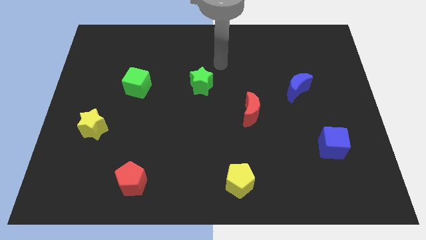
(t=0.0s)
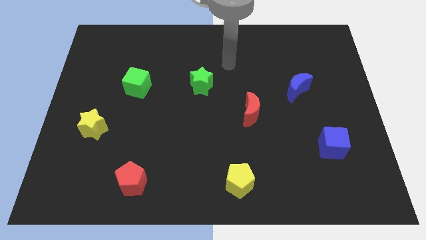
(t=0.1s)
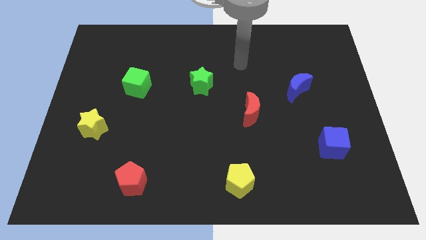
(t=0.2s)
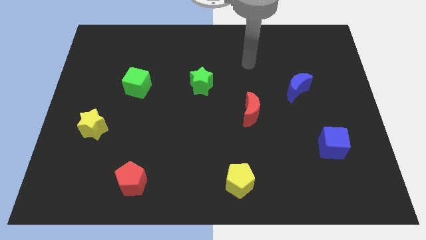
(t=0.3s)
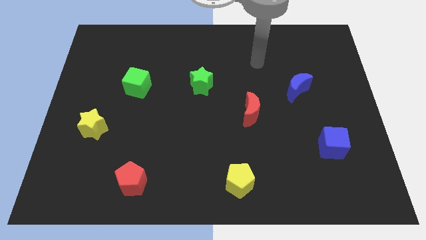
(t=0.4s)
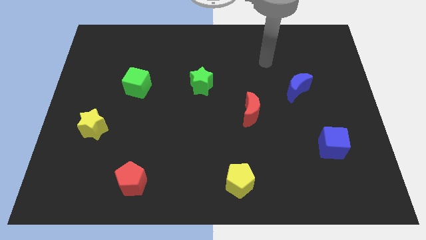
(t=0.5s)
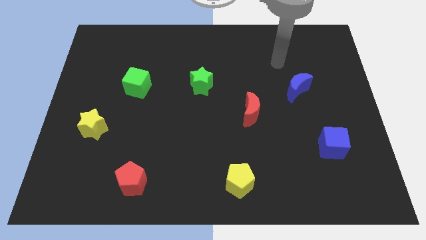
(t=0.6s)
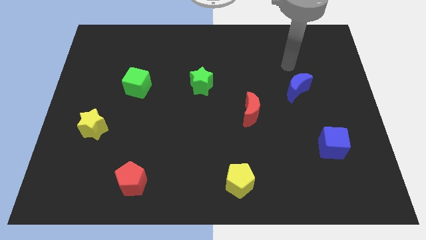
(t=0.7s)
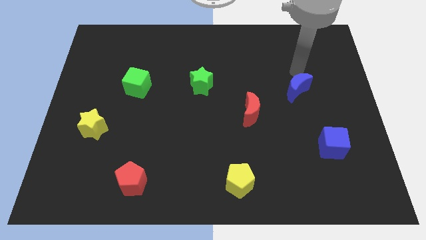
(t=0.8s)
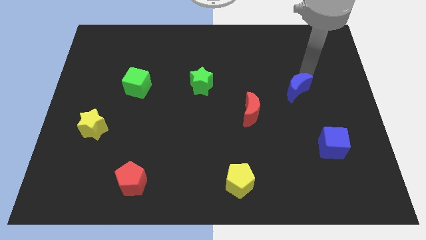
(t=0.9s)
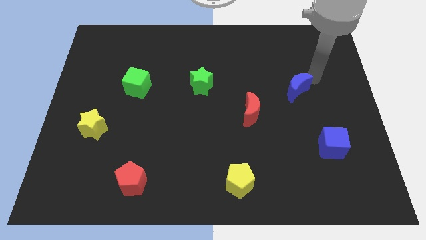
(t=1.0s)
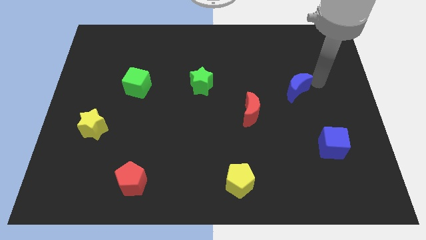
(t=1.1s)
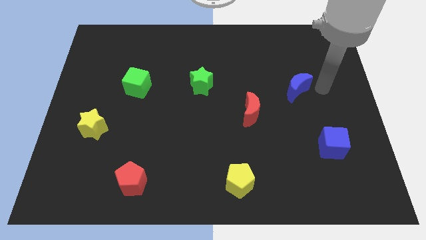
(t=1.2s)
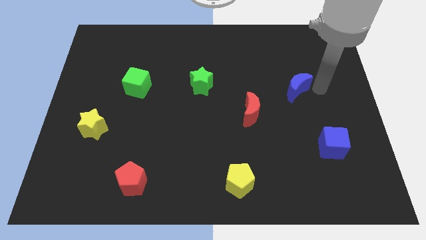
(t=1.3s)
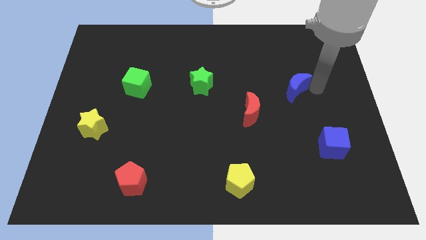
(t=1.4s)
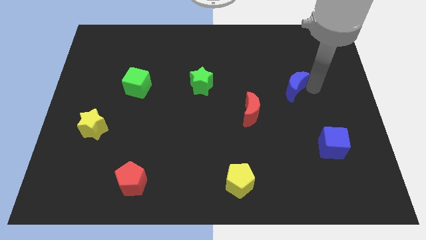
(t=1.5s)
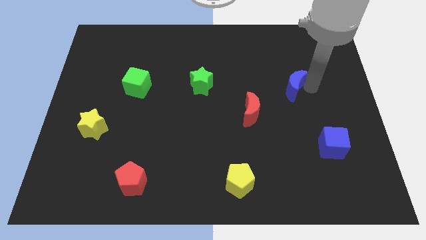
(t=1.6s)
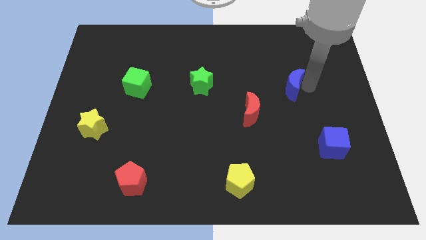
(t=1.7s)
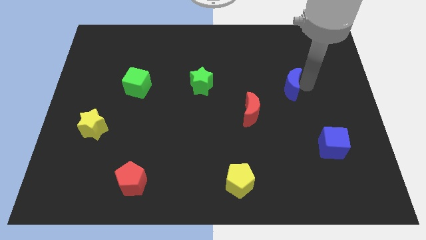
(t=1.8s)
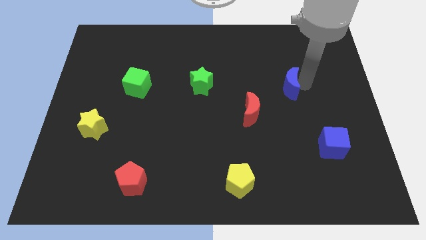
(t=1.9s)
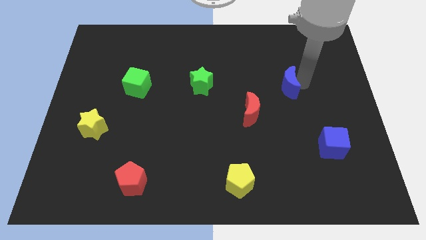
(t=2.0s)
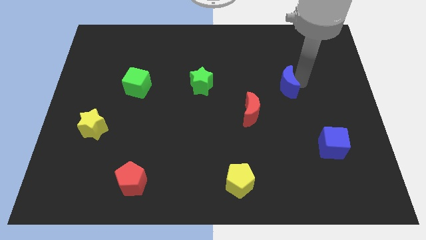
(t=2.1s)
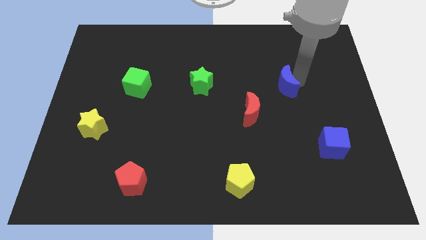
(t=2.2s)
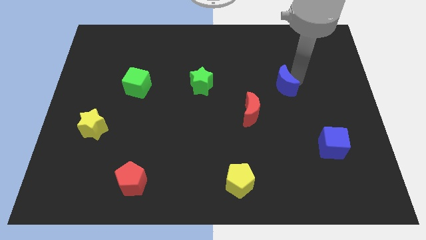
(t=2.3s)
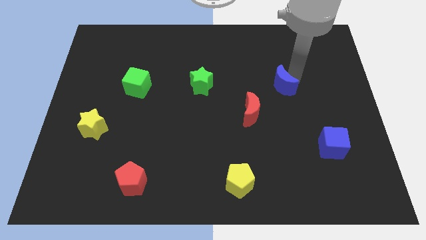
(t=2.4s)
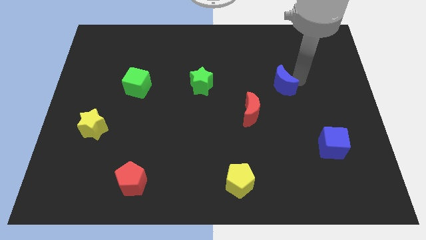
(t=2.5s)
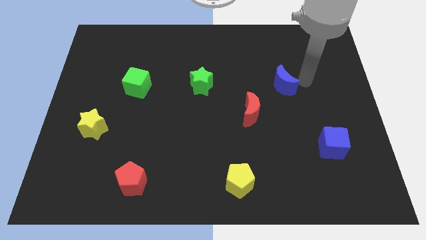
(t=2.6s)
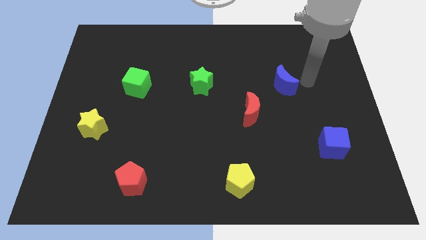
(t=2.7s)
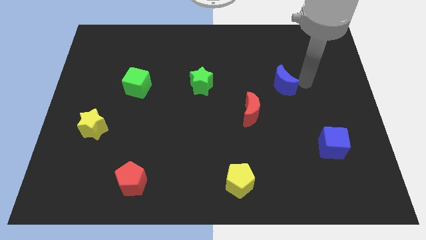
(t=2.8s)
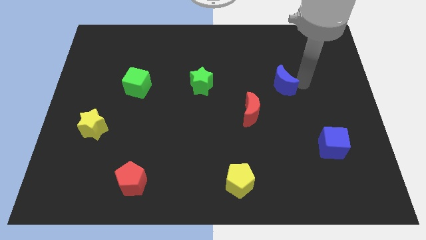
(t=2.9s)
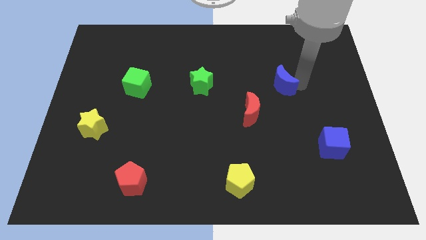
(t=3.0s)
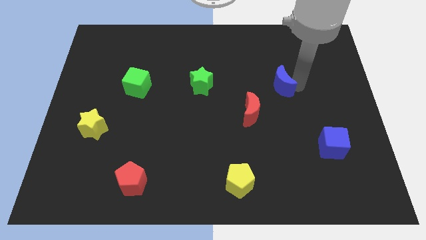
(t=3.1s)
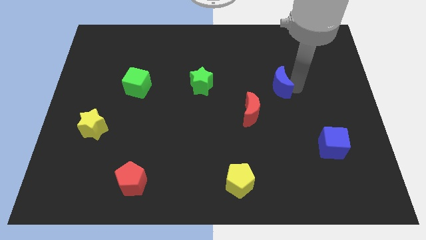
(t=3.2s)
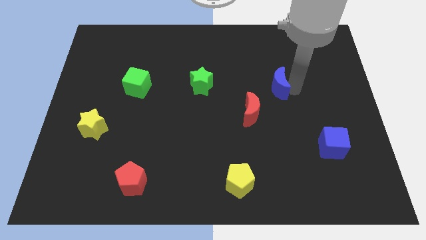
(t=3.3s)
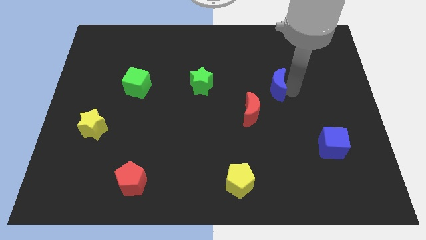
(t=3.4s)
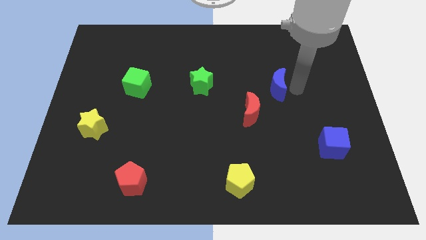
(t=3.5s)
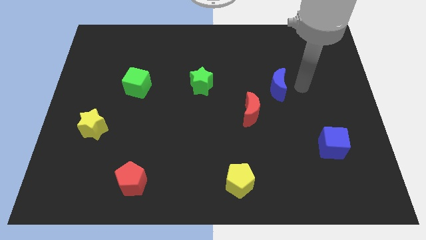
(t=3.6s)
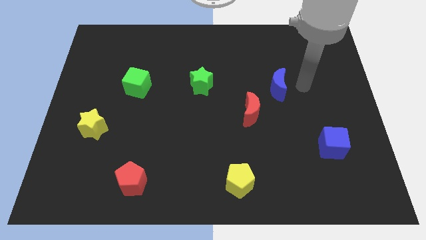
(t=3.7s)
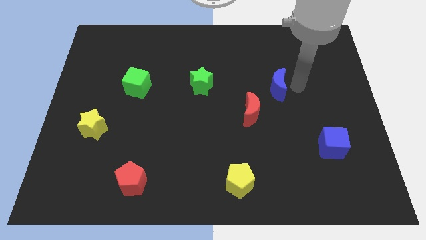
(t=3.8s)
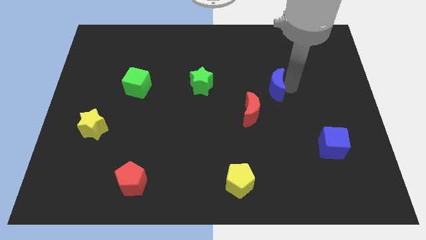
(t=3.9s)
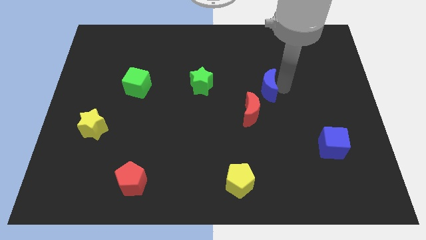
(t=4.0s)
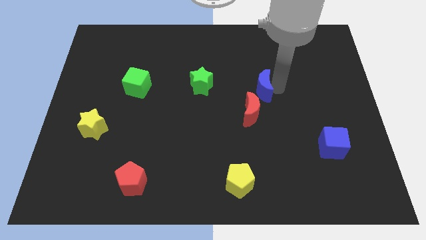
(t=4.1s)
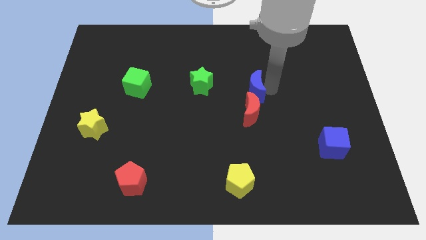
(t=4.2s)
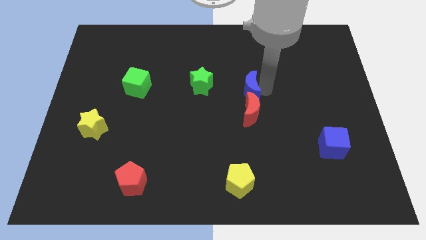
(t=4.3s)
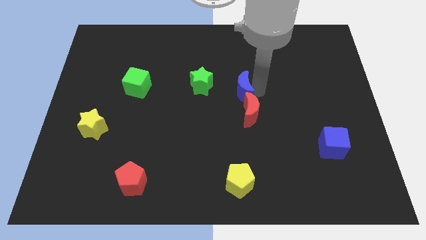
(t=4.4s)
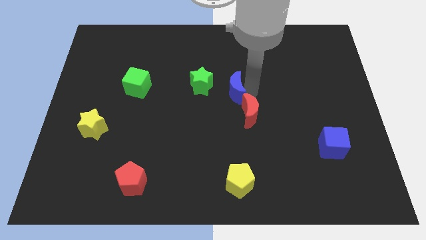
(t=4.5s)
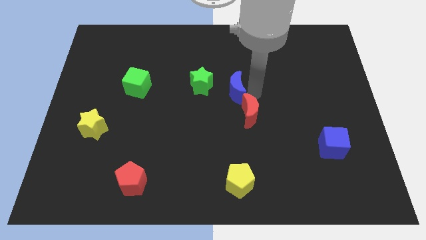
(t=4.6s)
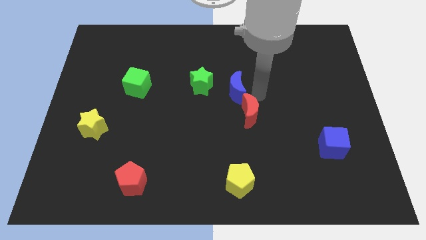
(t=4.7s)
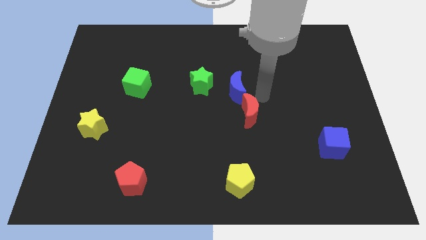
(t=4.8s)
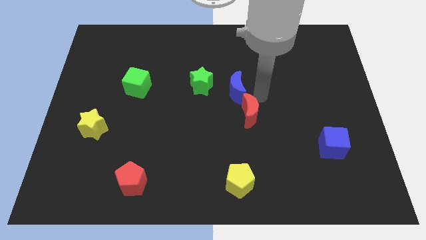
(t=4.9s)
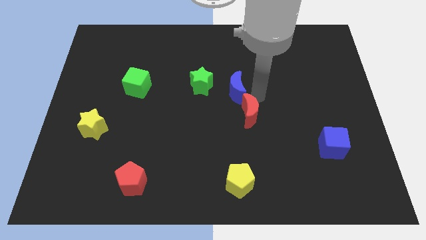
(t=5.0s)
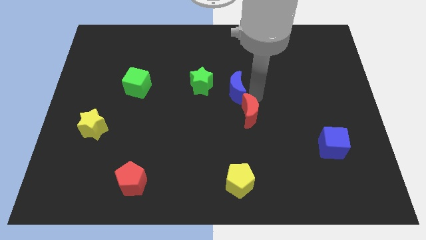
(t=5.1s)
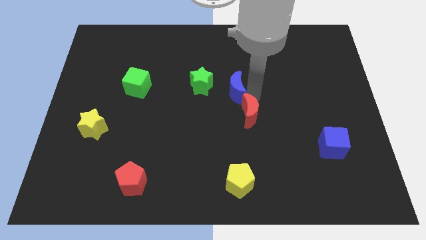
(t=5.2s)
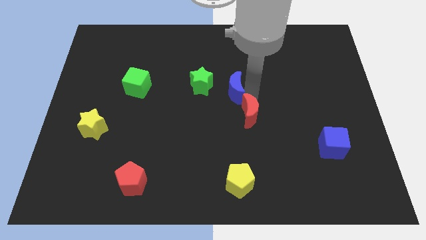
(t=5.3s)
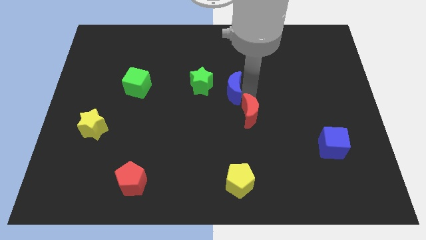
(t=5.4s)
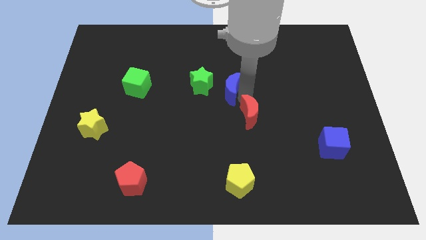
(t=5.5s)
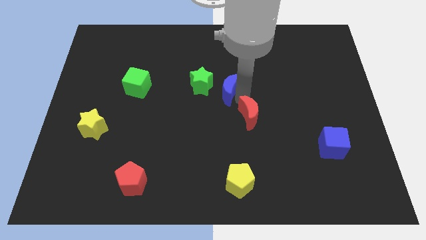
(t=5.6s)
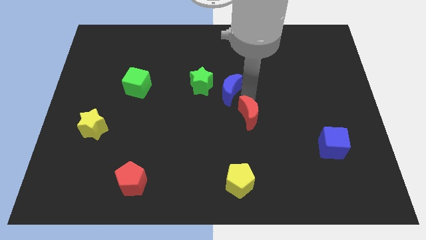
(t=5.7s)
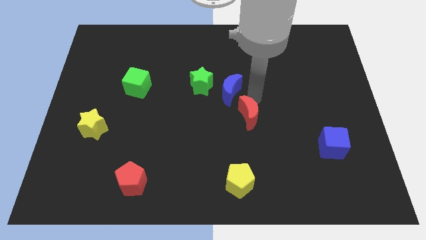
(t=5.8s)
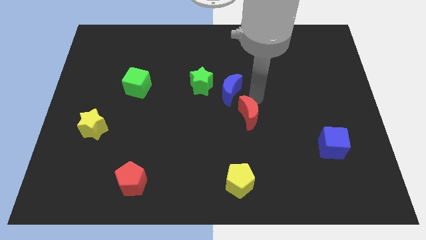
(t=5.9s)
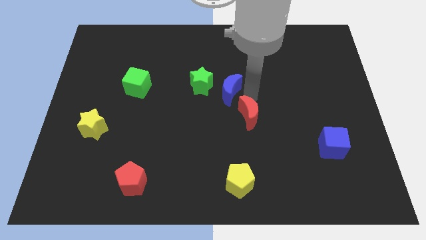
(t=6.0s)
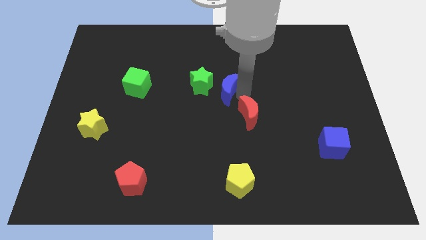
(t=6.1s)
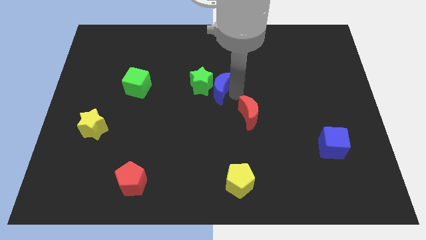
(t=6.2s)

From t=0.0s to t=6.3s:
slide the blue moon towards the green star

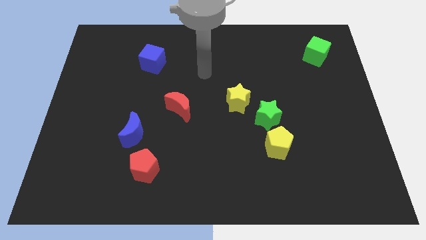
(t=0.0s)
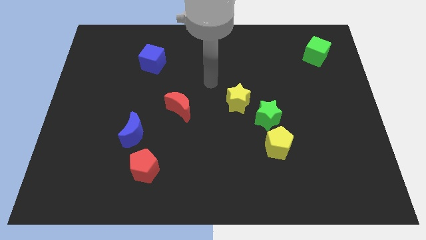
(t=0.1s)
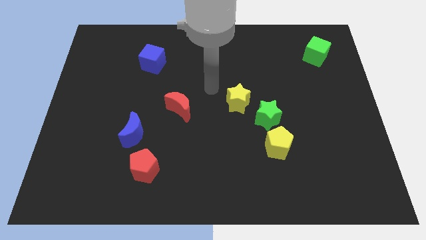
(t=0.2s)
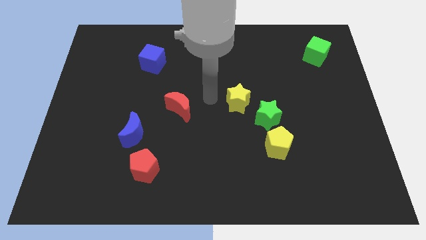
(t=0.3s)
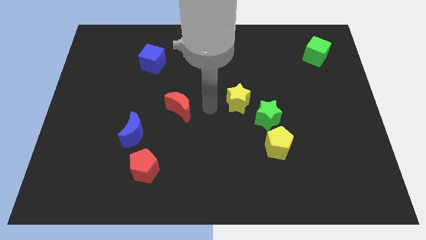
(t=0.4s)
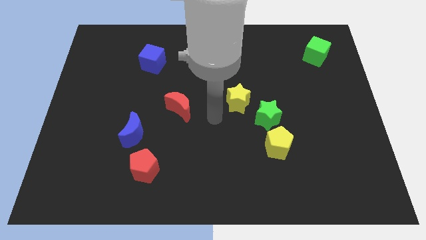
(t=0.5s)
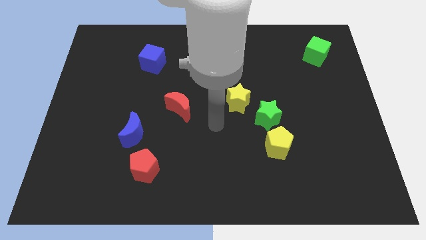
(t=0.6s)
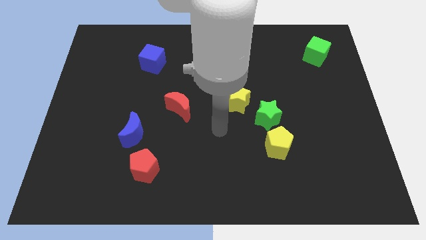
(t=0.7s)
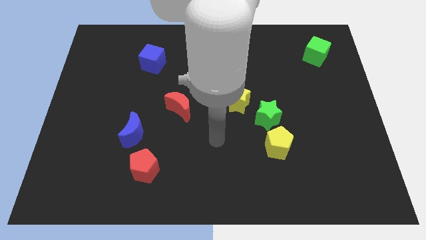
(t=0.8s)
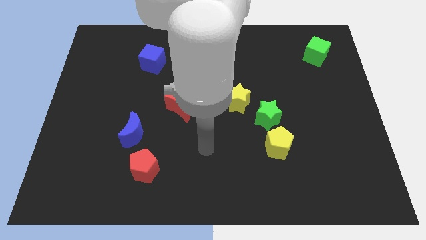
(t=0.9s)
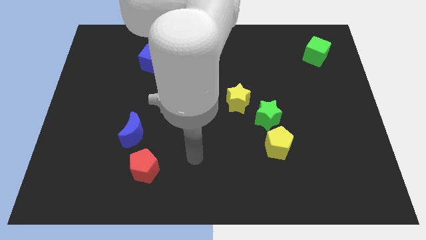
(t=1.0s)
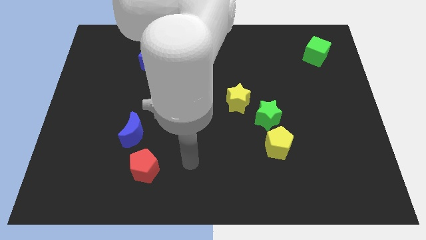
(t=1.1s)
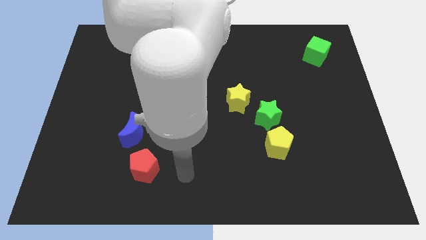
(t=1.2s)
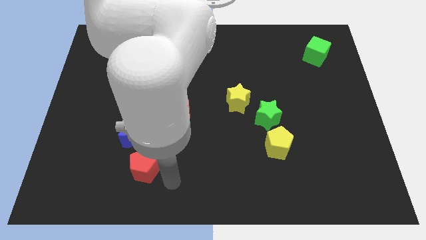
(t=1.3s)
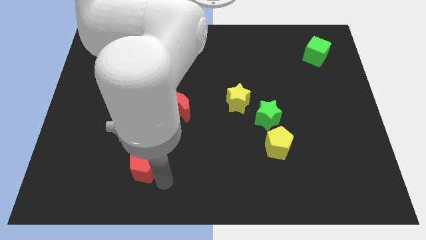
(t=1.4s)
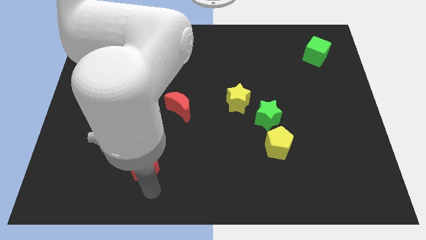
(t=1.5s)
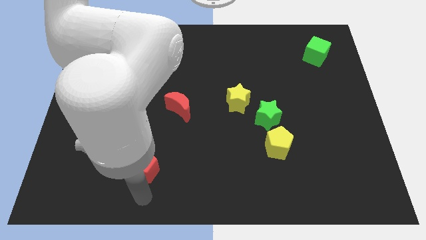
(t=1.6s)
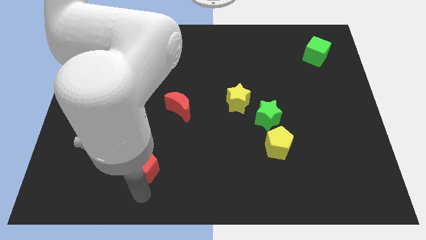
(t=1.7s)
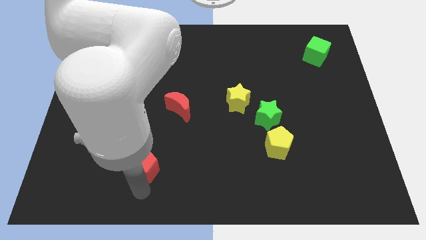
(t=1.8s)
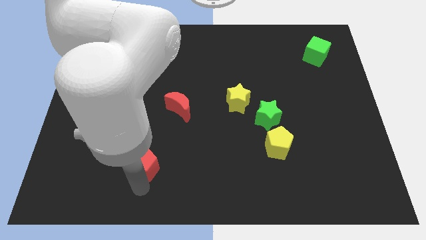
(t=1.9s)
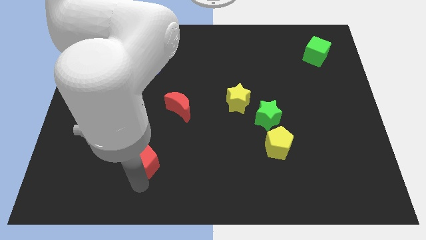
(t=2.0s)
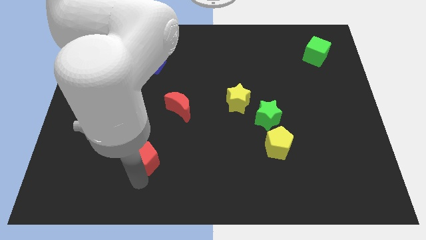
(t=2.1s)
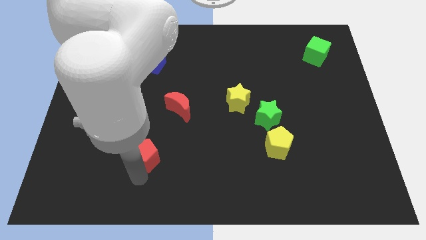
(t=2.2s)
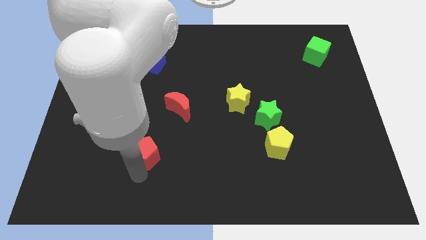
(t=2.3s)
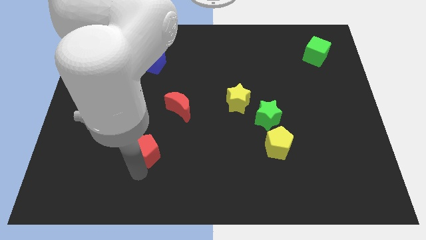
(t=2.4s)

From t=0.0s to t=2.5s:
put the red pentagon to the blue moon
